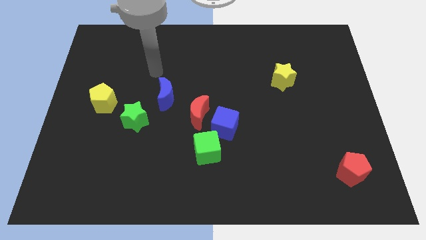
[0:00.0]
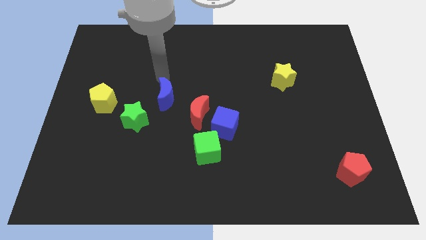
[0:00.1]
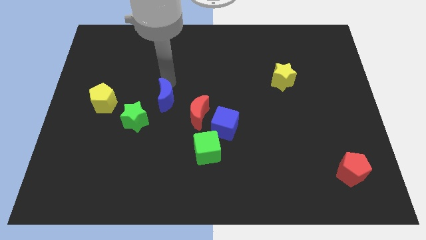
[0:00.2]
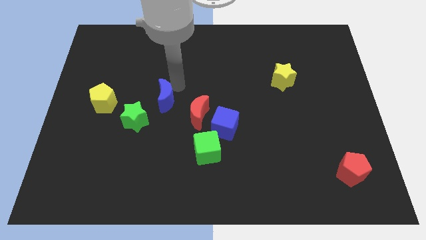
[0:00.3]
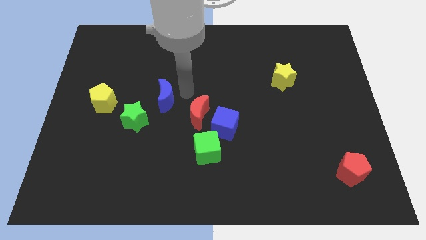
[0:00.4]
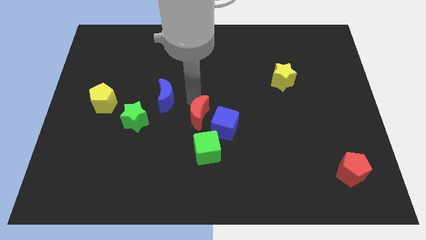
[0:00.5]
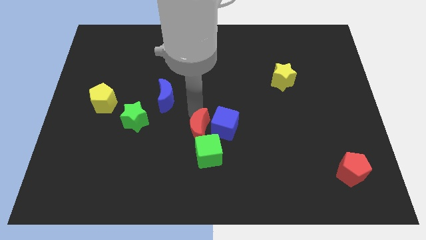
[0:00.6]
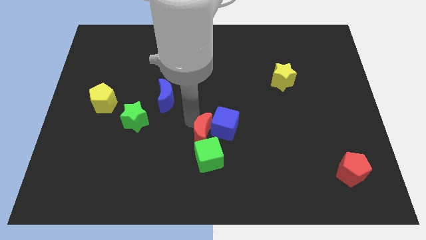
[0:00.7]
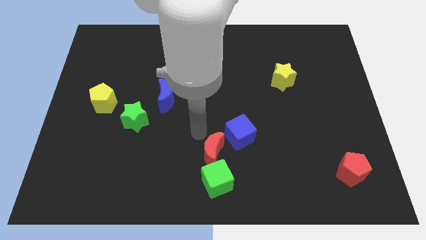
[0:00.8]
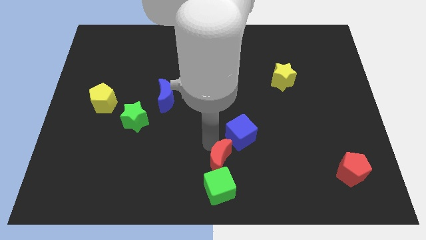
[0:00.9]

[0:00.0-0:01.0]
separate the blue cube from the red moon and green cube

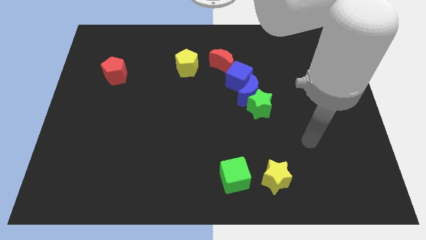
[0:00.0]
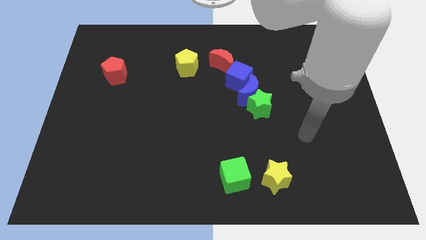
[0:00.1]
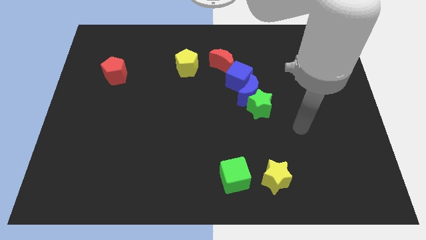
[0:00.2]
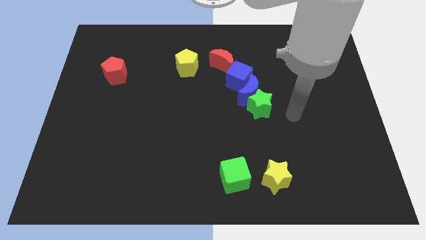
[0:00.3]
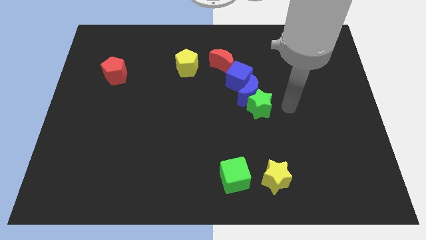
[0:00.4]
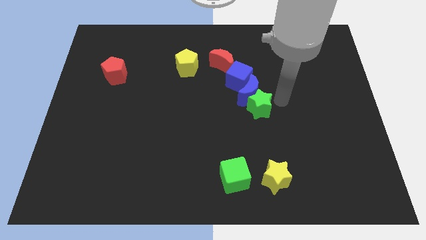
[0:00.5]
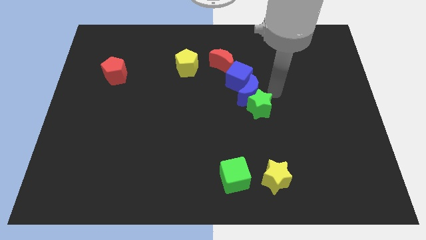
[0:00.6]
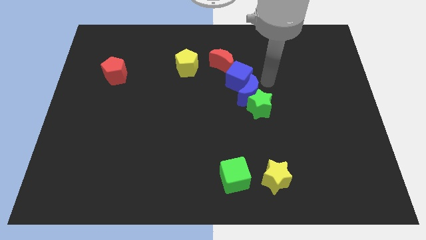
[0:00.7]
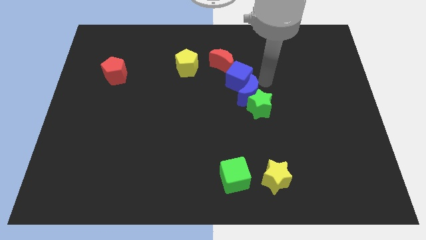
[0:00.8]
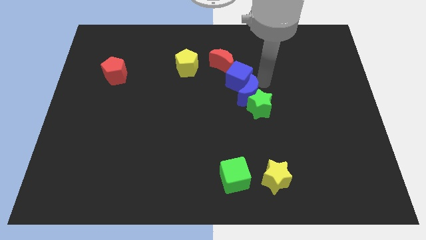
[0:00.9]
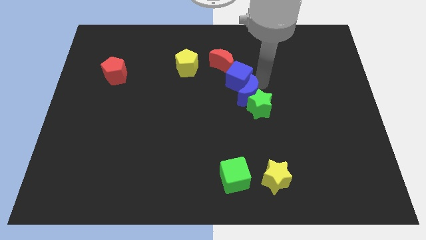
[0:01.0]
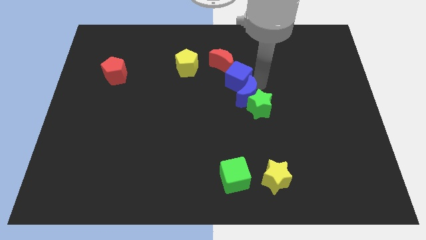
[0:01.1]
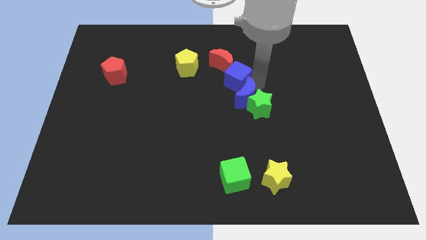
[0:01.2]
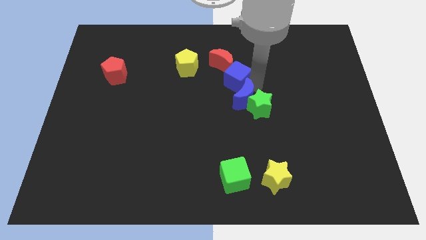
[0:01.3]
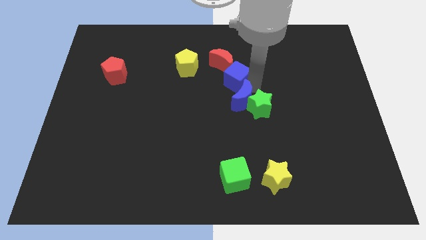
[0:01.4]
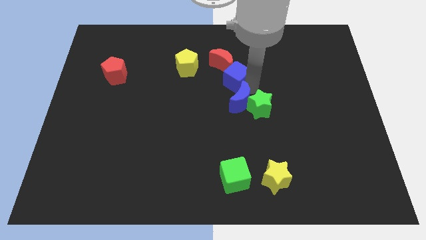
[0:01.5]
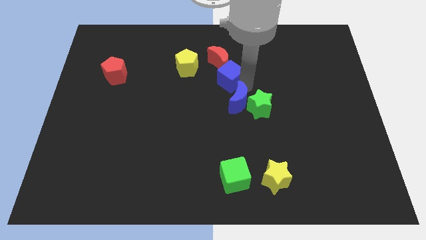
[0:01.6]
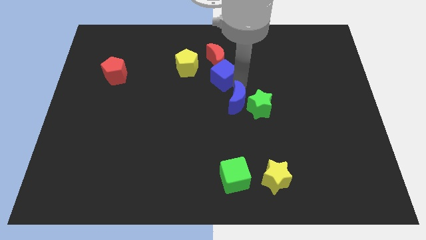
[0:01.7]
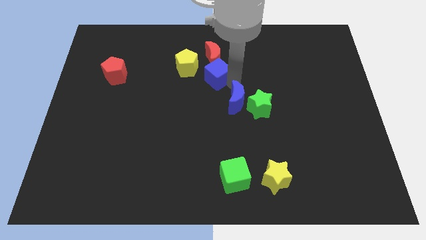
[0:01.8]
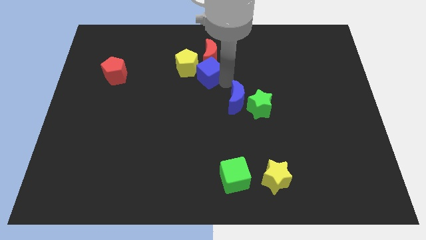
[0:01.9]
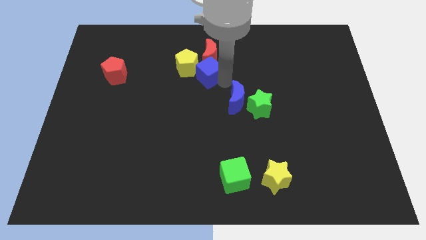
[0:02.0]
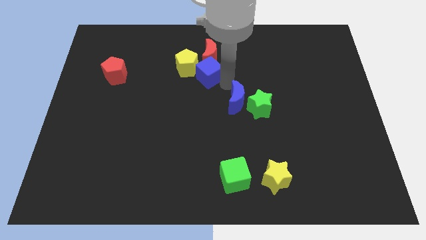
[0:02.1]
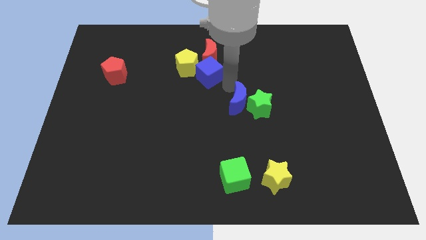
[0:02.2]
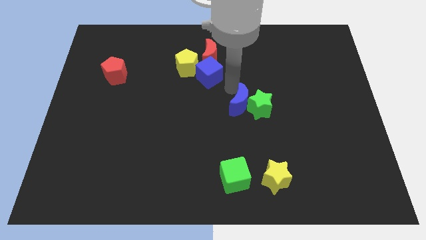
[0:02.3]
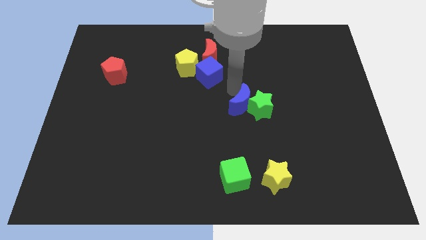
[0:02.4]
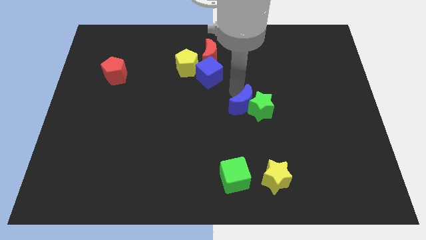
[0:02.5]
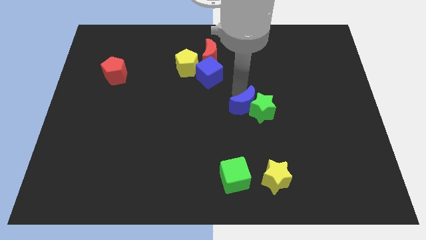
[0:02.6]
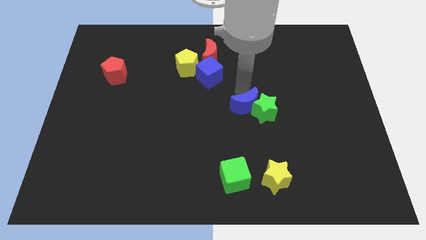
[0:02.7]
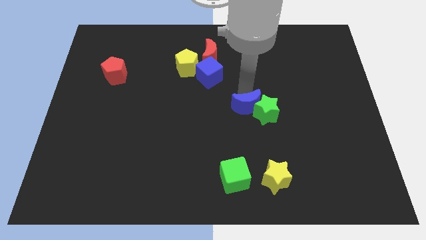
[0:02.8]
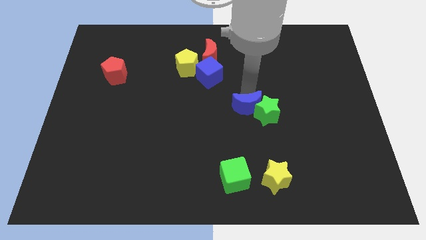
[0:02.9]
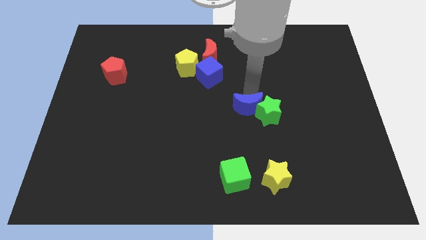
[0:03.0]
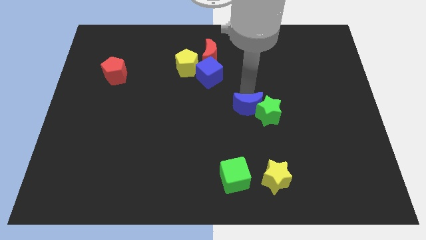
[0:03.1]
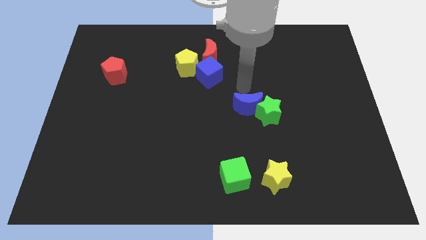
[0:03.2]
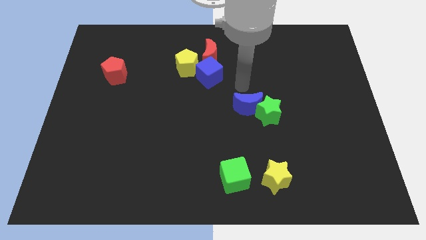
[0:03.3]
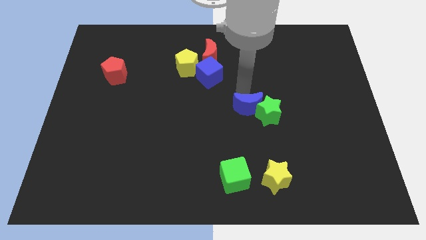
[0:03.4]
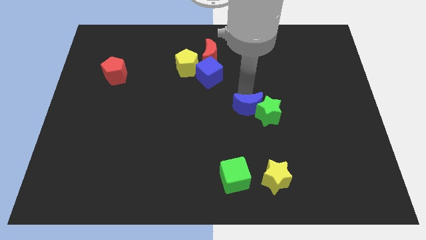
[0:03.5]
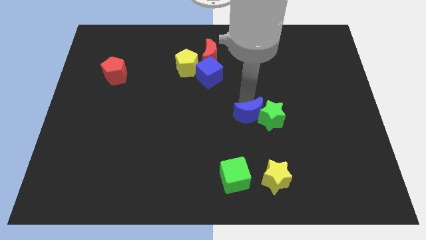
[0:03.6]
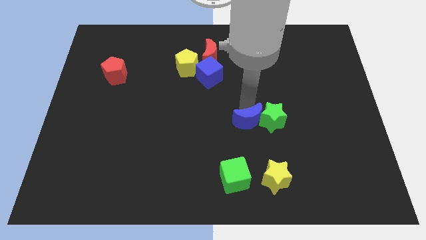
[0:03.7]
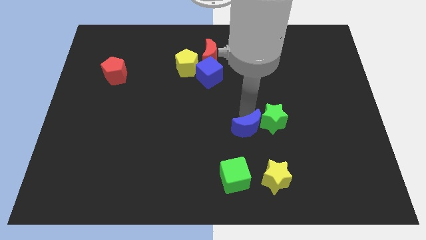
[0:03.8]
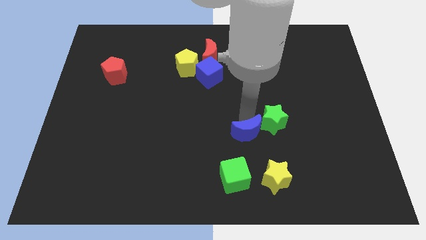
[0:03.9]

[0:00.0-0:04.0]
pull the blue moon apart from the green star and blue cube

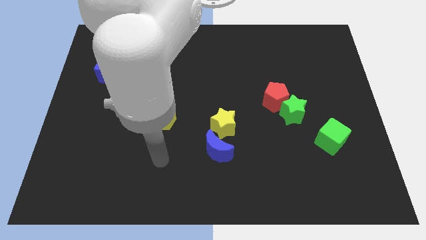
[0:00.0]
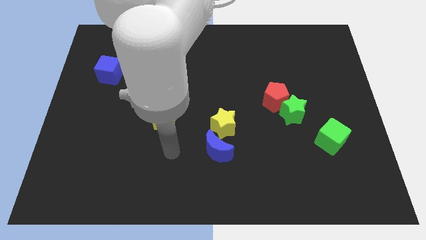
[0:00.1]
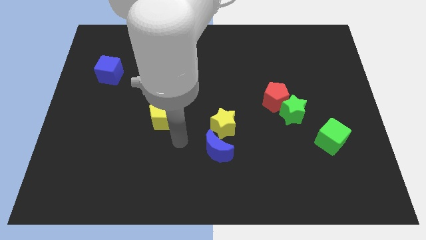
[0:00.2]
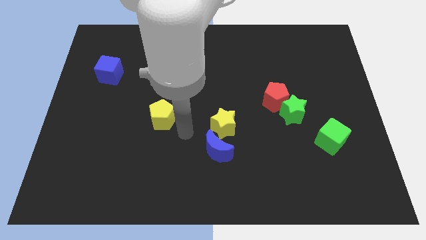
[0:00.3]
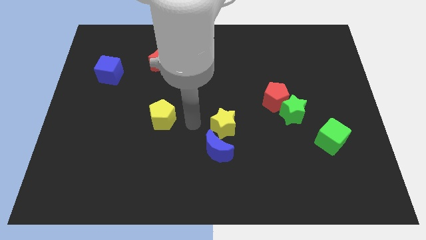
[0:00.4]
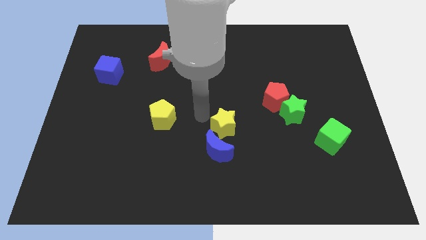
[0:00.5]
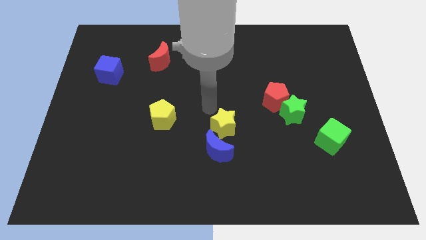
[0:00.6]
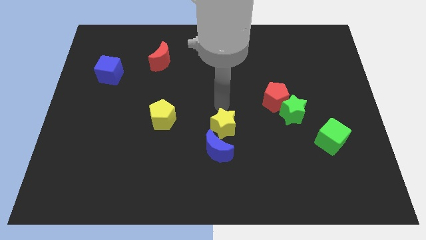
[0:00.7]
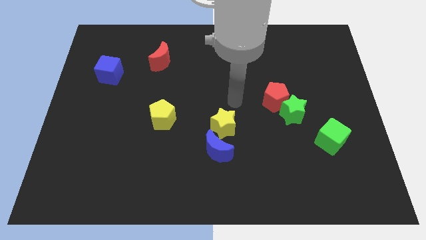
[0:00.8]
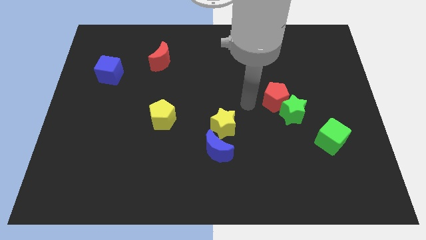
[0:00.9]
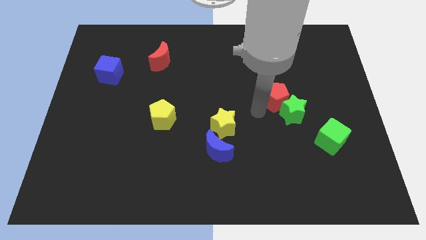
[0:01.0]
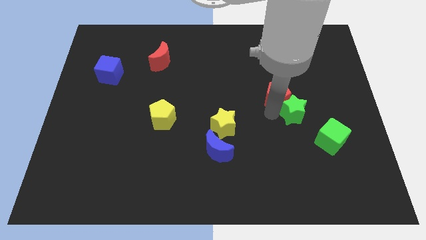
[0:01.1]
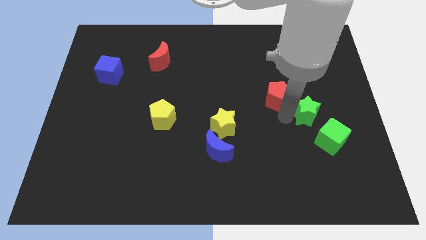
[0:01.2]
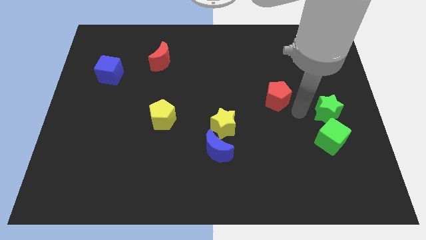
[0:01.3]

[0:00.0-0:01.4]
separate the red pentagon from the green star

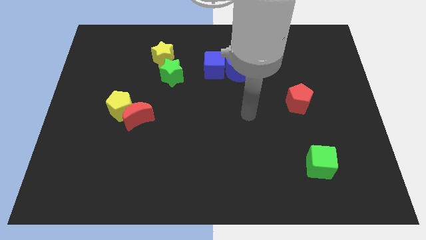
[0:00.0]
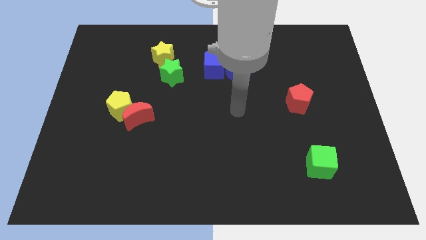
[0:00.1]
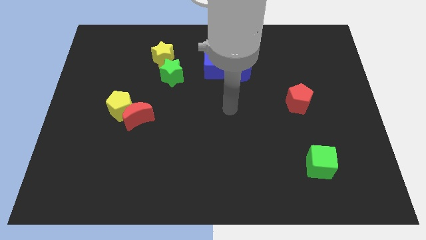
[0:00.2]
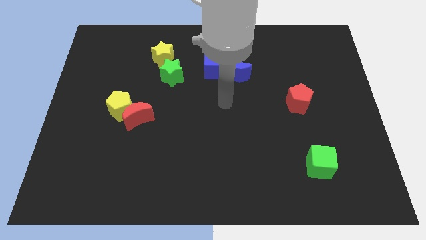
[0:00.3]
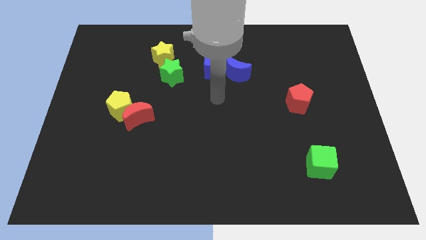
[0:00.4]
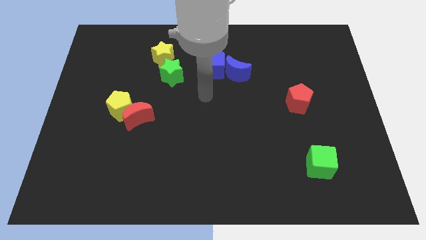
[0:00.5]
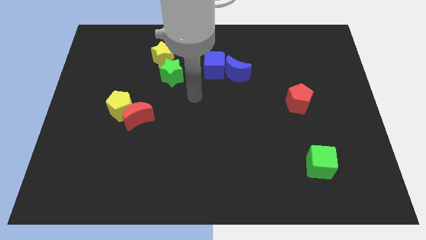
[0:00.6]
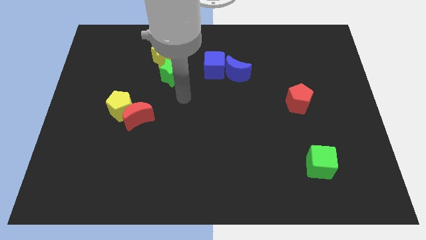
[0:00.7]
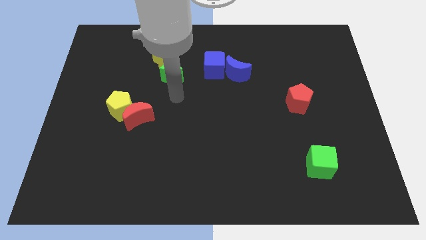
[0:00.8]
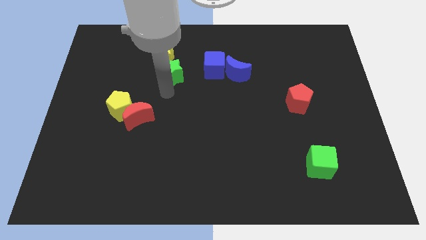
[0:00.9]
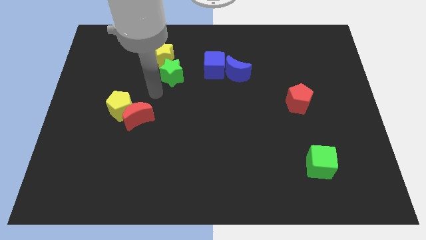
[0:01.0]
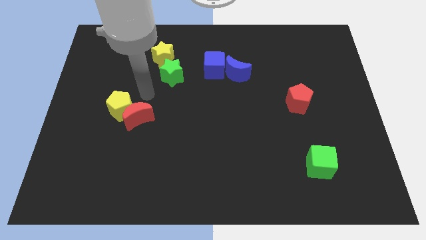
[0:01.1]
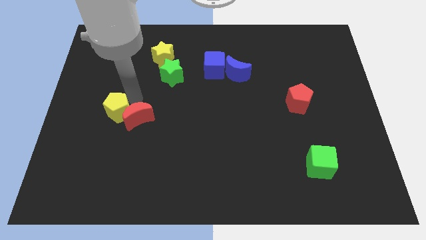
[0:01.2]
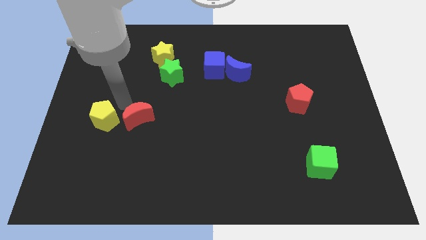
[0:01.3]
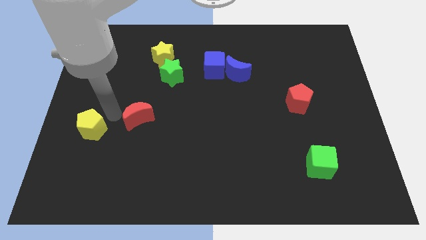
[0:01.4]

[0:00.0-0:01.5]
separate the red moon from the yellow pentagon

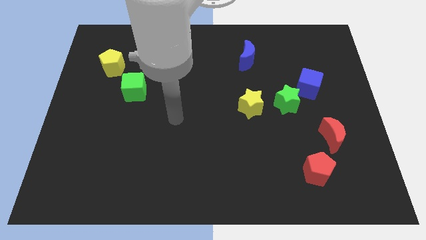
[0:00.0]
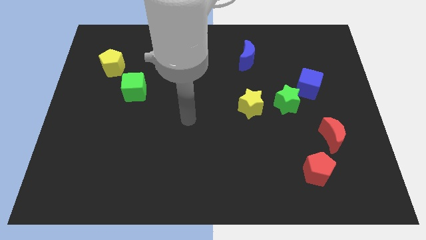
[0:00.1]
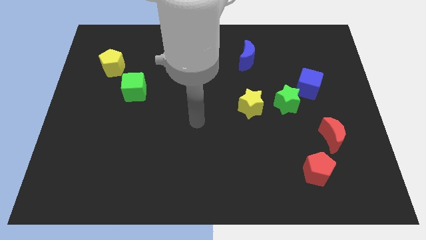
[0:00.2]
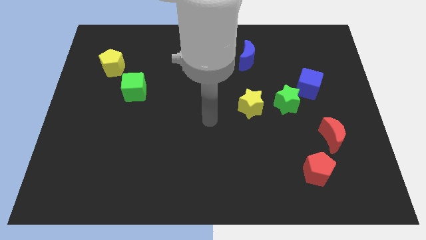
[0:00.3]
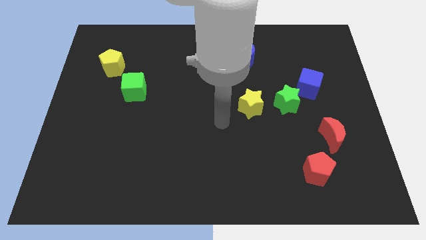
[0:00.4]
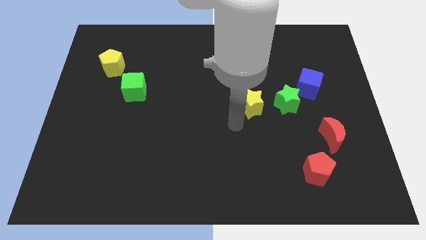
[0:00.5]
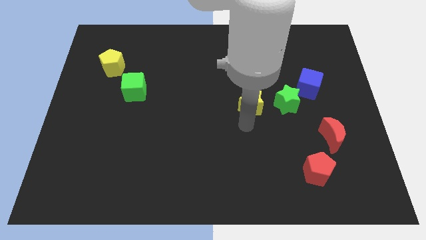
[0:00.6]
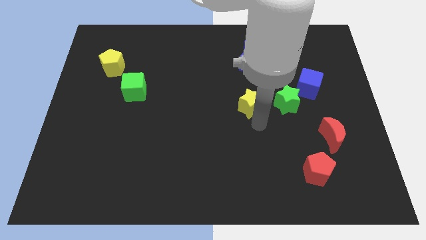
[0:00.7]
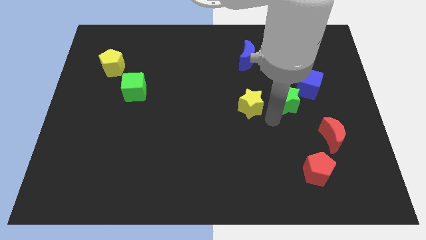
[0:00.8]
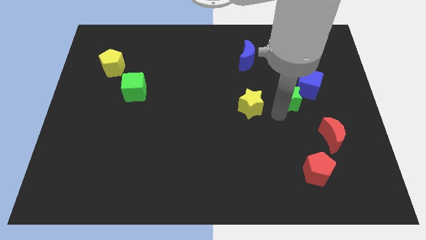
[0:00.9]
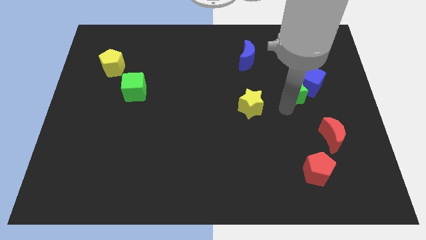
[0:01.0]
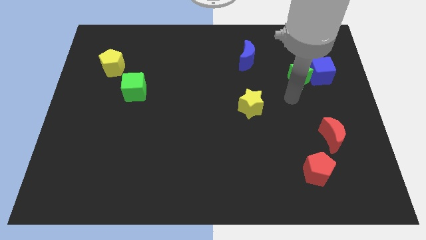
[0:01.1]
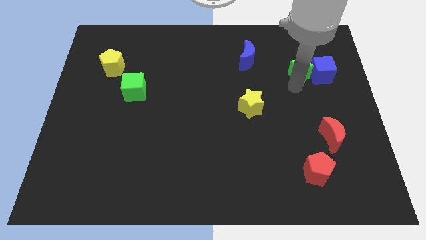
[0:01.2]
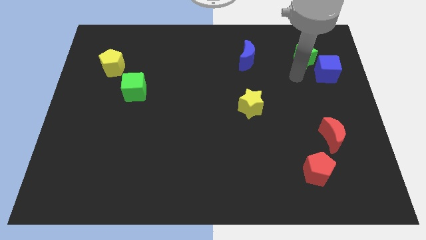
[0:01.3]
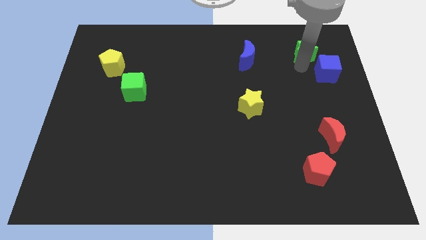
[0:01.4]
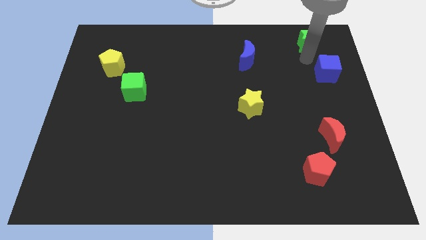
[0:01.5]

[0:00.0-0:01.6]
pull the blue cube apart from the green star
